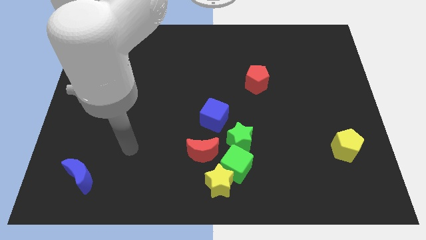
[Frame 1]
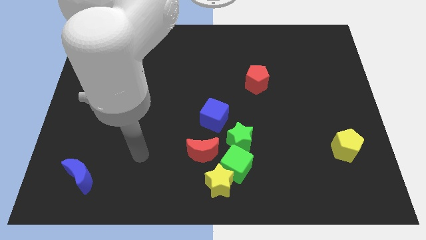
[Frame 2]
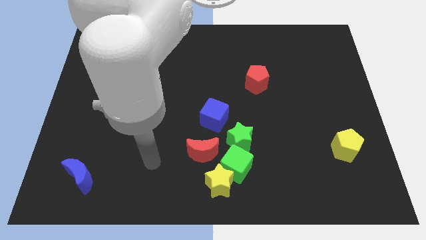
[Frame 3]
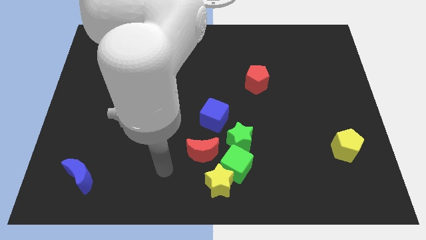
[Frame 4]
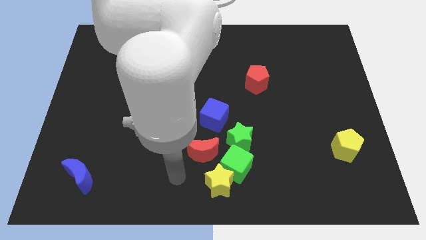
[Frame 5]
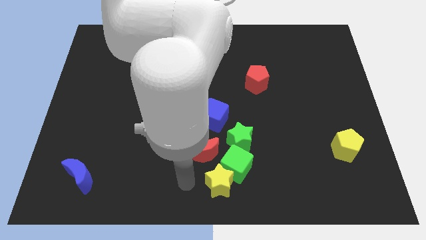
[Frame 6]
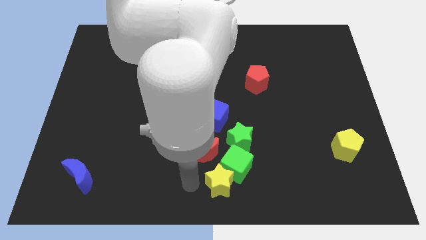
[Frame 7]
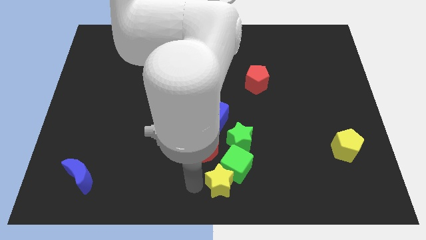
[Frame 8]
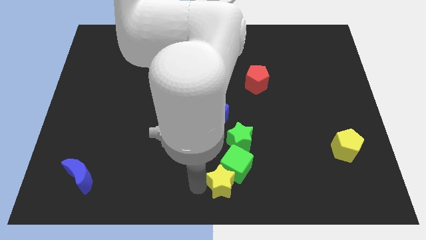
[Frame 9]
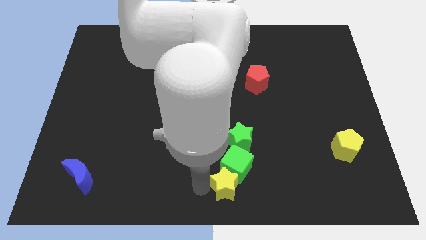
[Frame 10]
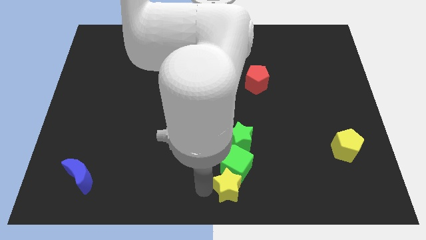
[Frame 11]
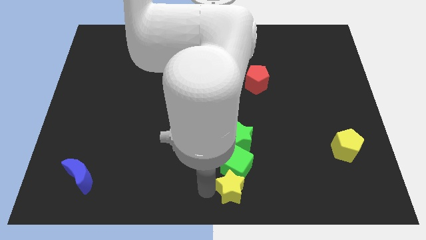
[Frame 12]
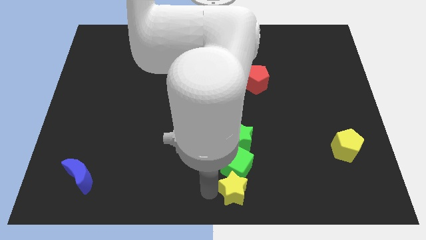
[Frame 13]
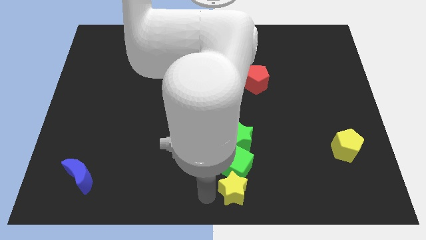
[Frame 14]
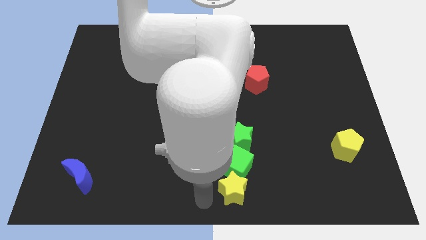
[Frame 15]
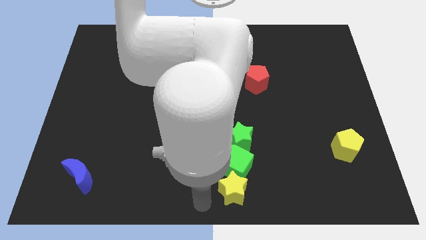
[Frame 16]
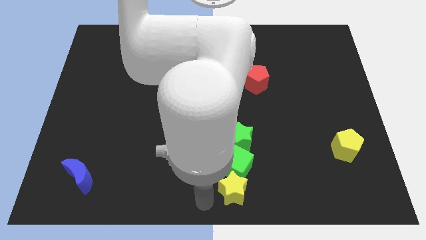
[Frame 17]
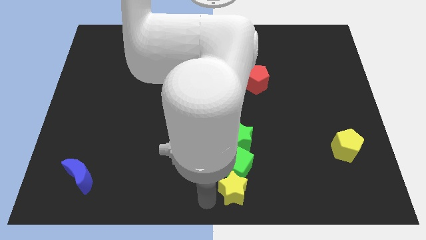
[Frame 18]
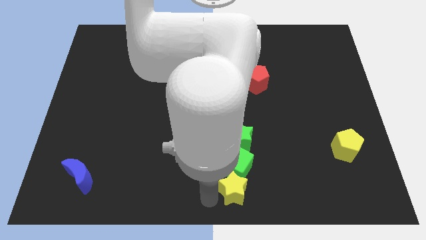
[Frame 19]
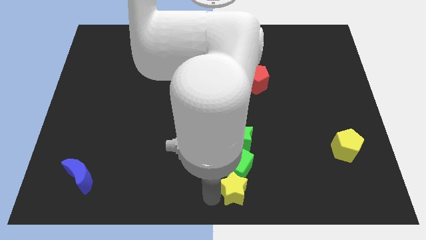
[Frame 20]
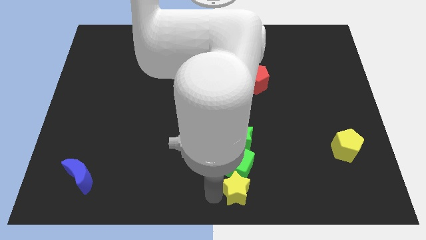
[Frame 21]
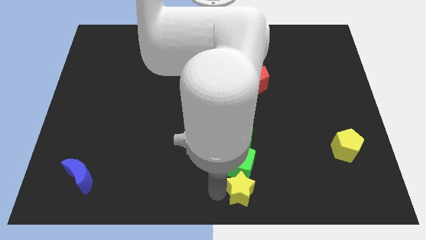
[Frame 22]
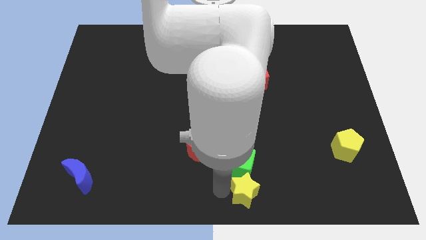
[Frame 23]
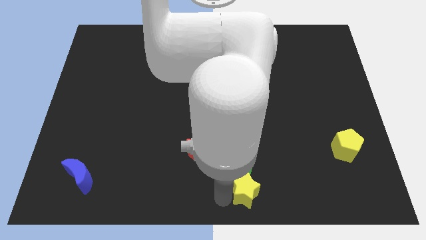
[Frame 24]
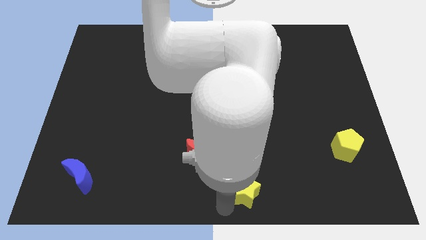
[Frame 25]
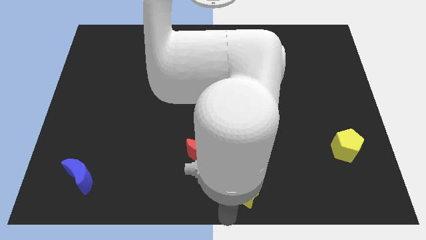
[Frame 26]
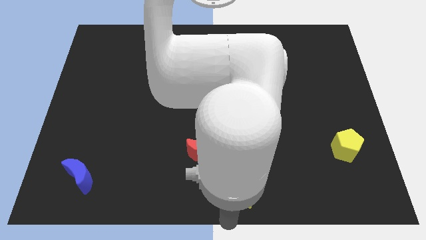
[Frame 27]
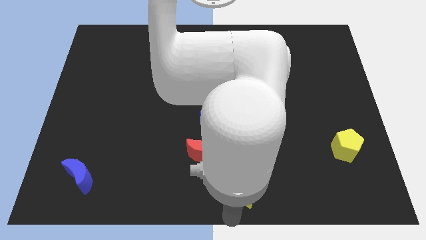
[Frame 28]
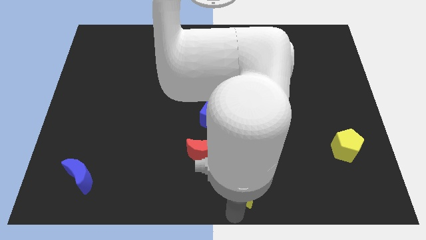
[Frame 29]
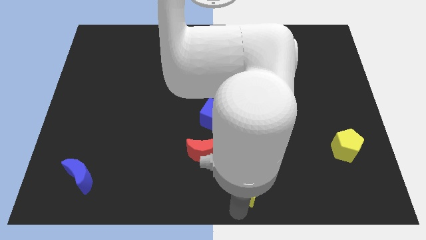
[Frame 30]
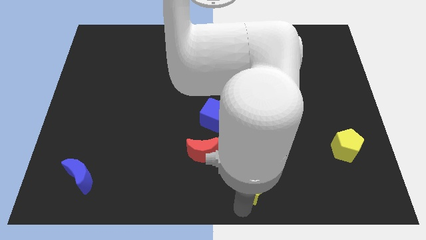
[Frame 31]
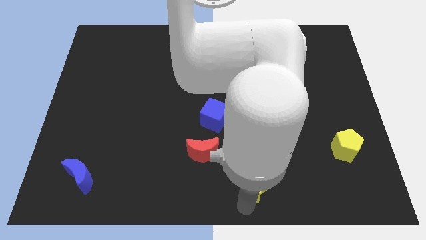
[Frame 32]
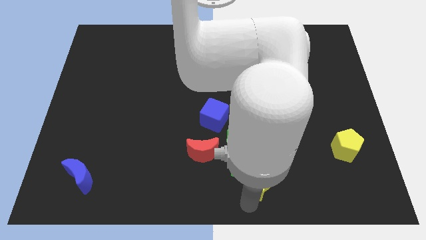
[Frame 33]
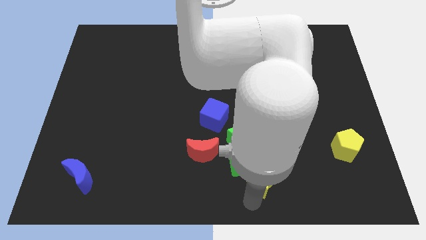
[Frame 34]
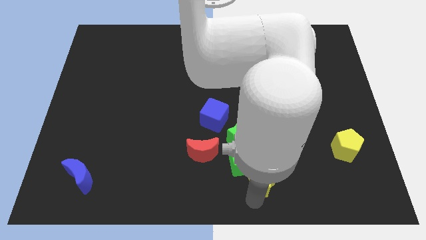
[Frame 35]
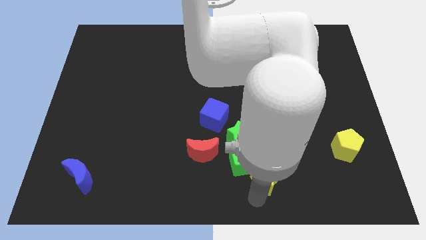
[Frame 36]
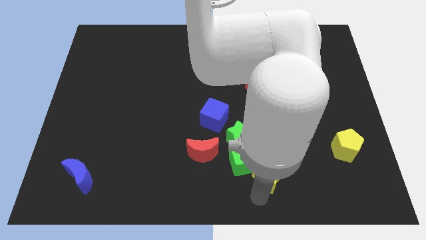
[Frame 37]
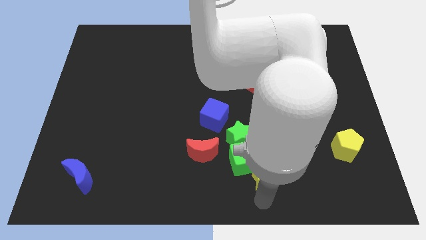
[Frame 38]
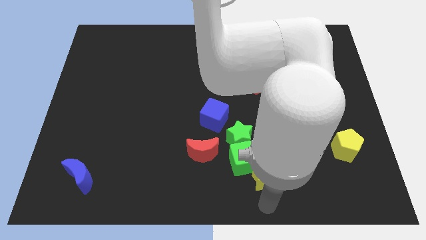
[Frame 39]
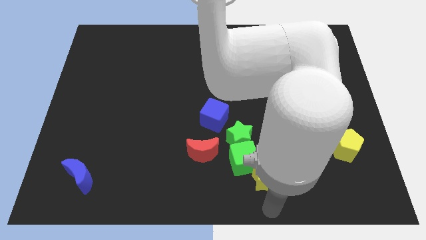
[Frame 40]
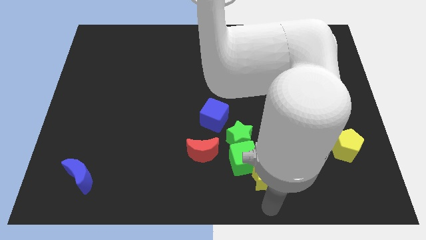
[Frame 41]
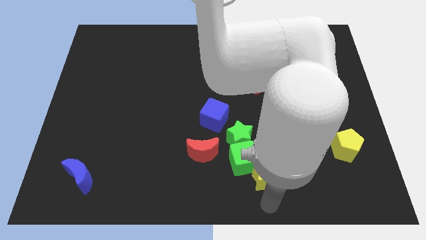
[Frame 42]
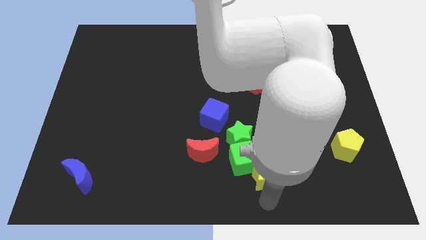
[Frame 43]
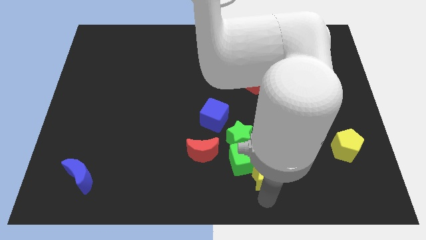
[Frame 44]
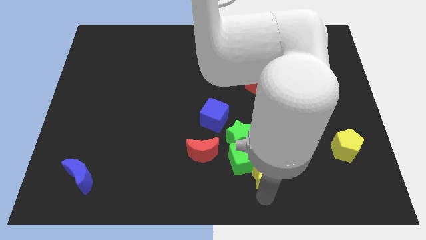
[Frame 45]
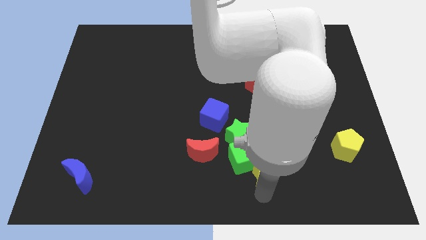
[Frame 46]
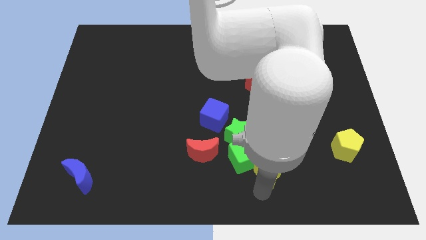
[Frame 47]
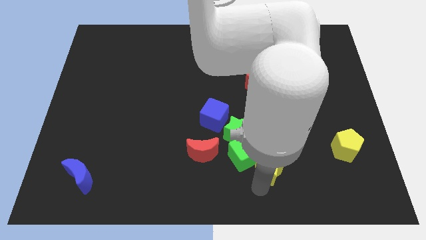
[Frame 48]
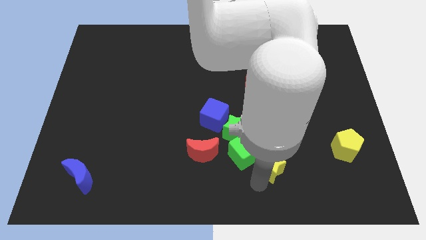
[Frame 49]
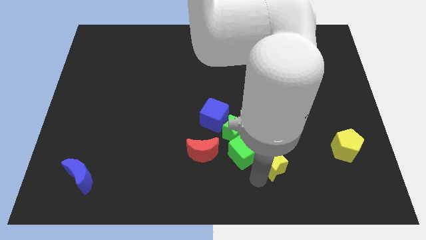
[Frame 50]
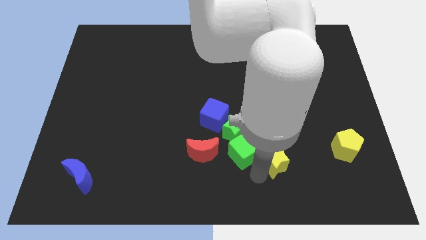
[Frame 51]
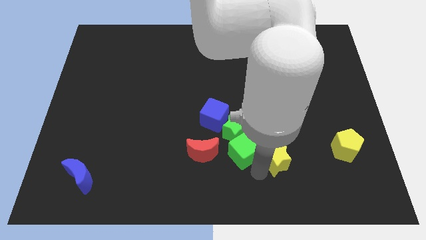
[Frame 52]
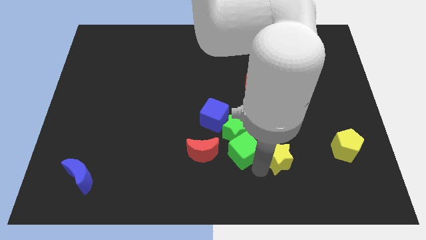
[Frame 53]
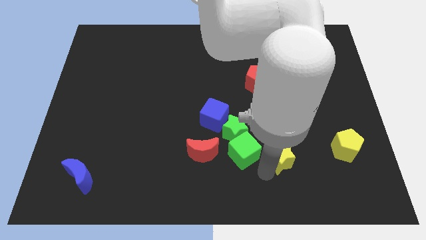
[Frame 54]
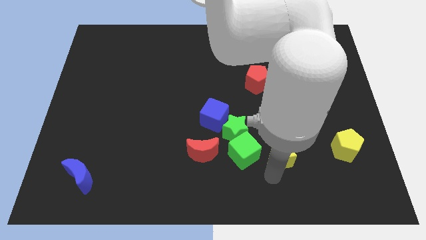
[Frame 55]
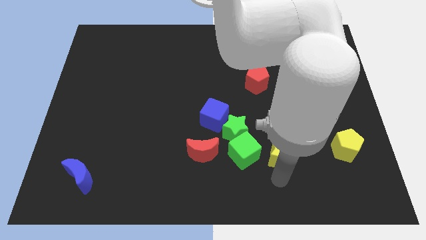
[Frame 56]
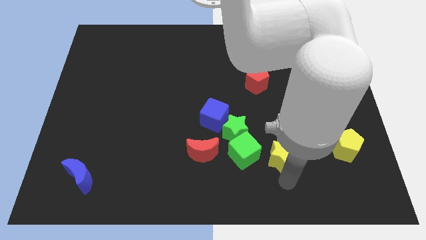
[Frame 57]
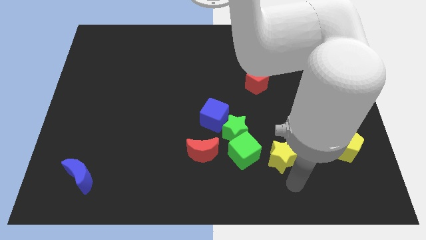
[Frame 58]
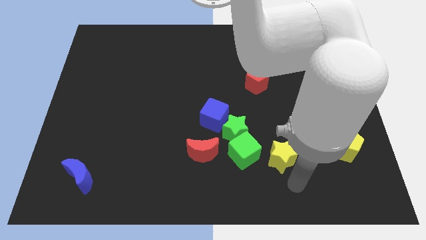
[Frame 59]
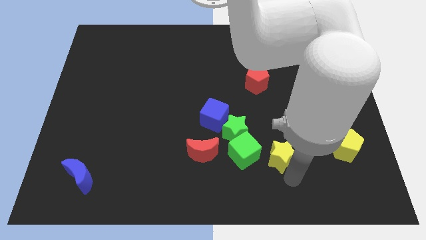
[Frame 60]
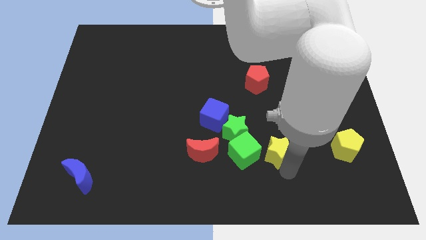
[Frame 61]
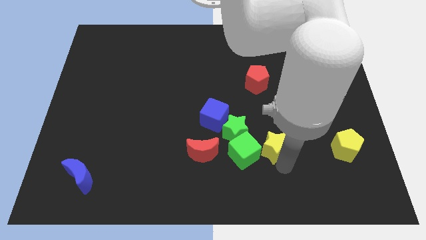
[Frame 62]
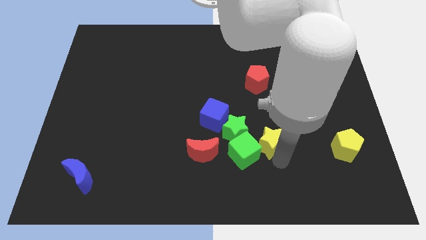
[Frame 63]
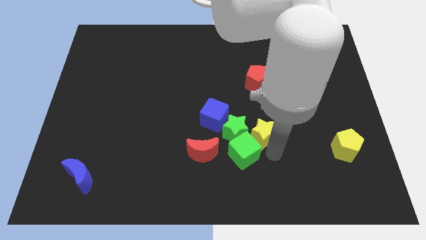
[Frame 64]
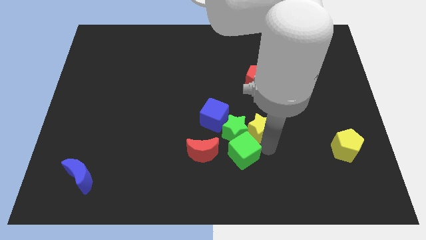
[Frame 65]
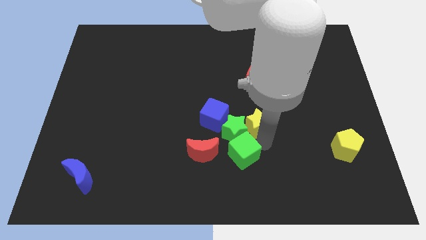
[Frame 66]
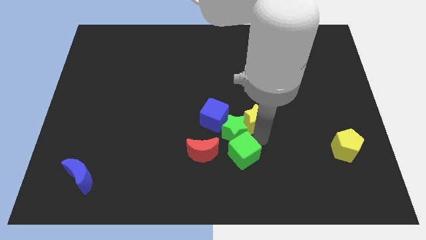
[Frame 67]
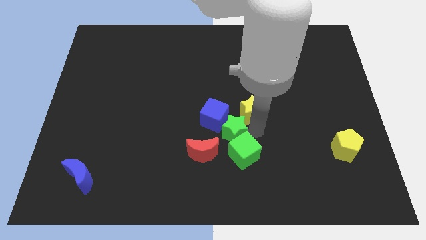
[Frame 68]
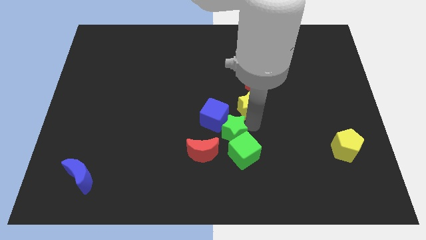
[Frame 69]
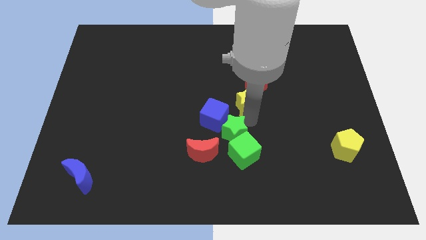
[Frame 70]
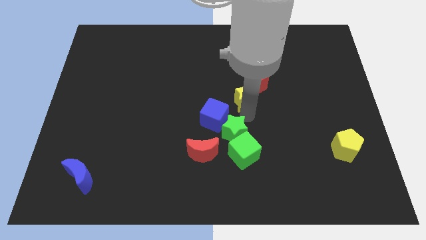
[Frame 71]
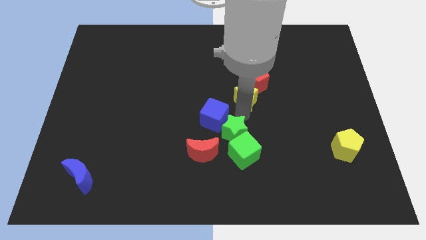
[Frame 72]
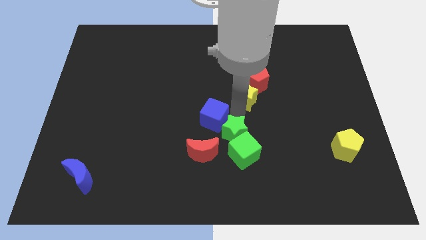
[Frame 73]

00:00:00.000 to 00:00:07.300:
move the yellow star close to the red pentagon

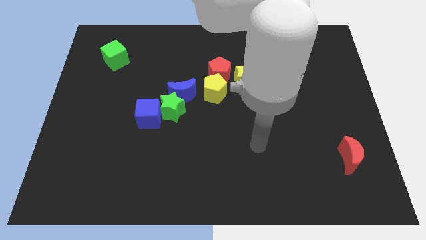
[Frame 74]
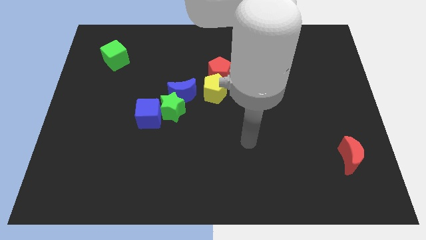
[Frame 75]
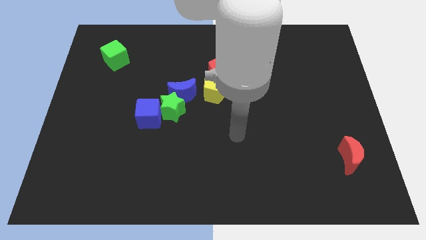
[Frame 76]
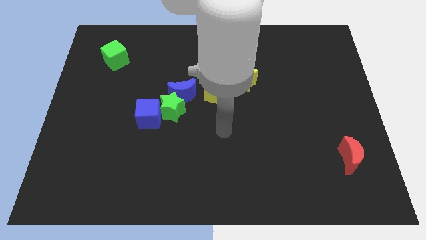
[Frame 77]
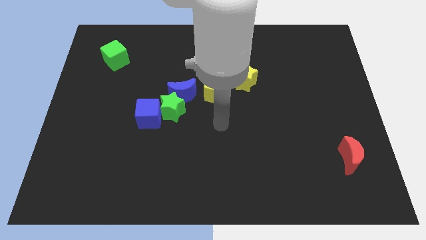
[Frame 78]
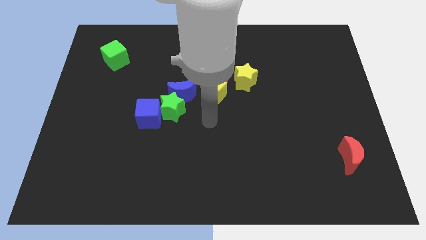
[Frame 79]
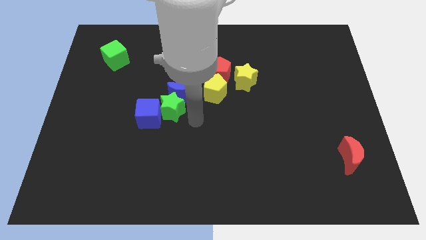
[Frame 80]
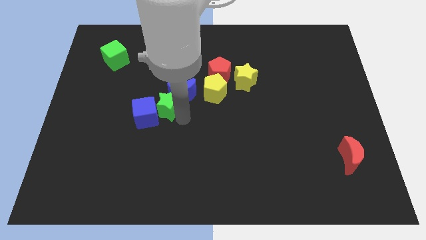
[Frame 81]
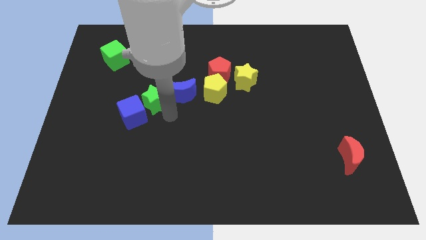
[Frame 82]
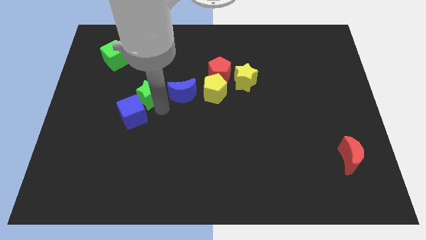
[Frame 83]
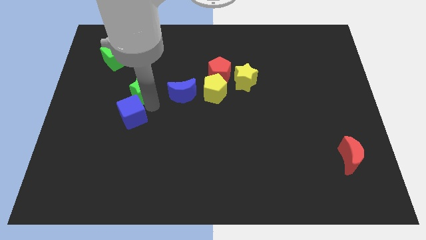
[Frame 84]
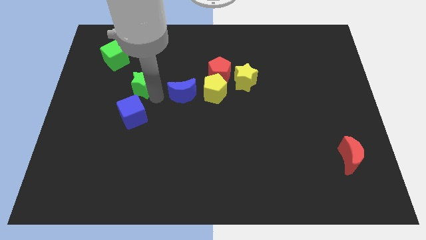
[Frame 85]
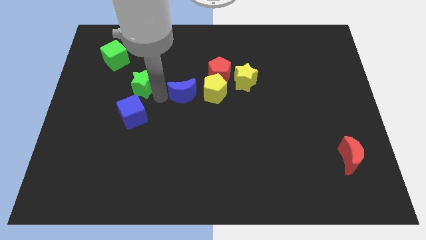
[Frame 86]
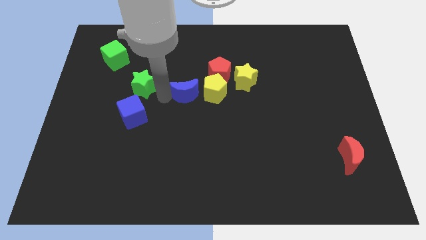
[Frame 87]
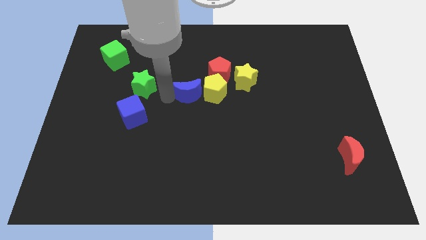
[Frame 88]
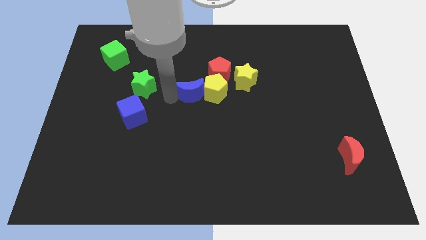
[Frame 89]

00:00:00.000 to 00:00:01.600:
slide the blue moon to the yellow pentagon
